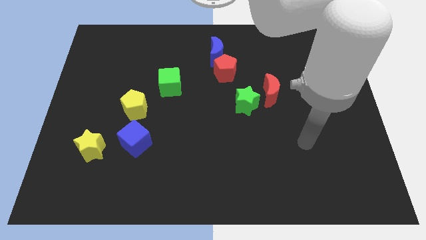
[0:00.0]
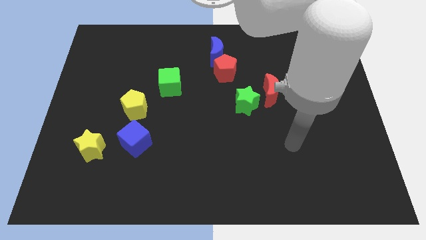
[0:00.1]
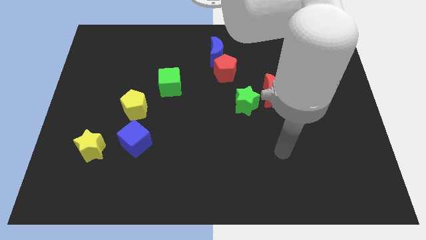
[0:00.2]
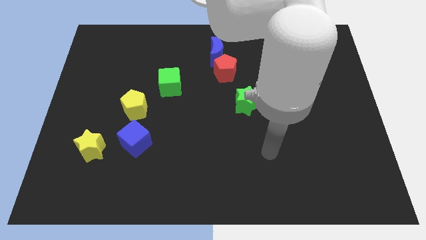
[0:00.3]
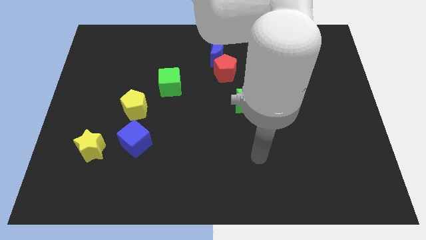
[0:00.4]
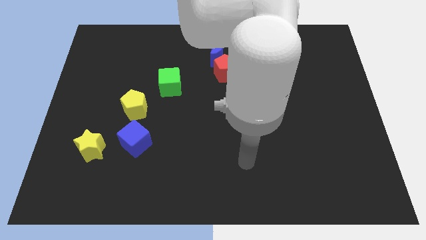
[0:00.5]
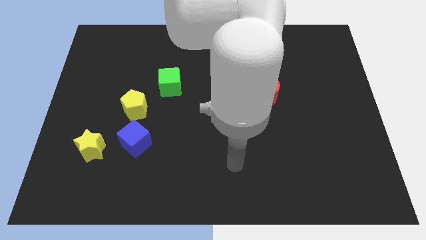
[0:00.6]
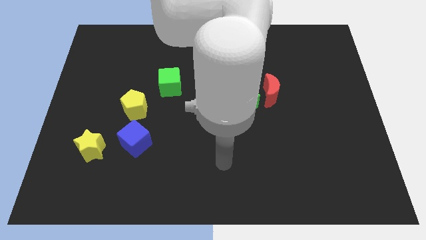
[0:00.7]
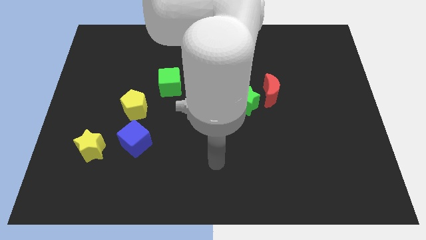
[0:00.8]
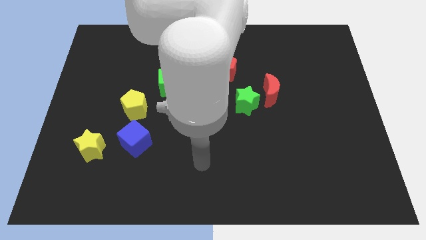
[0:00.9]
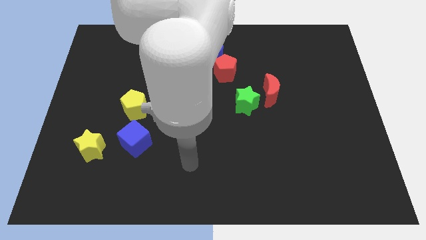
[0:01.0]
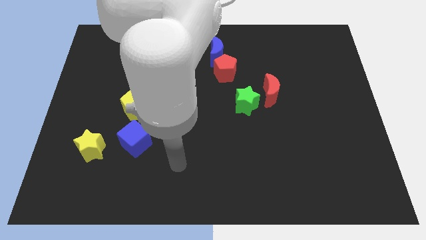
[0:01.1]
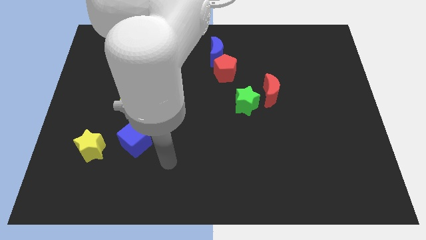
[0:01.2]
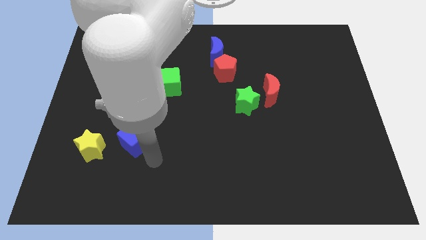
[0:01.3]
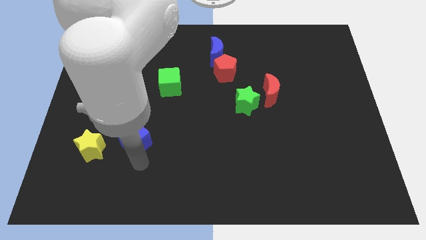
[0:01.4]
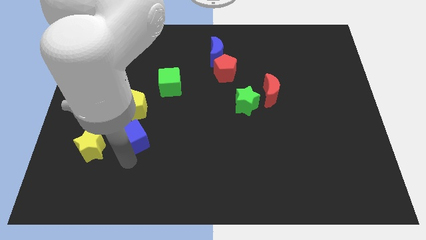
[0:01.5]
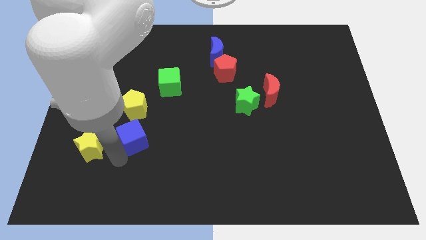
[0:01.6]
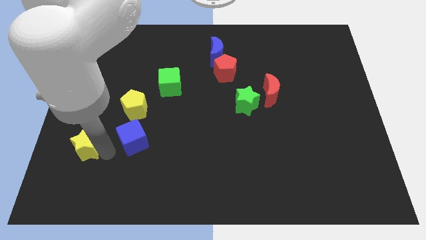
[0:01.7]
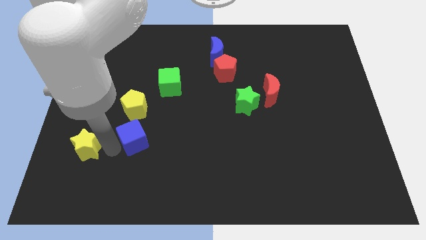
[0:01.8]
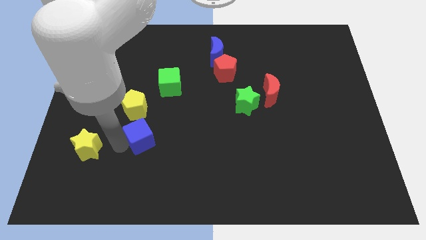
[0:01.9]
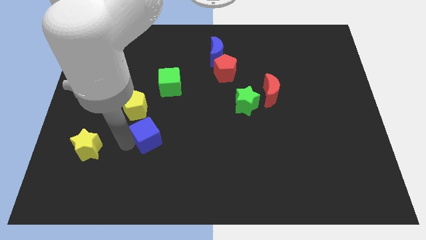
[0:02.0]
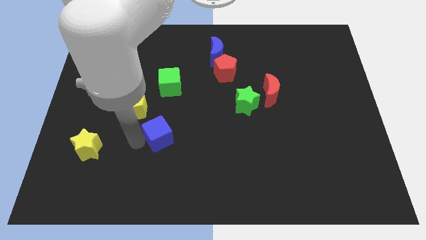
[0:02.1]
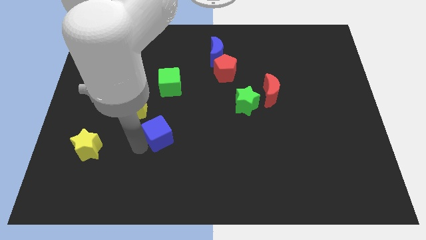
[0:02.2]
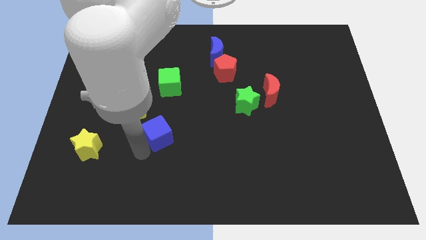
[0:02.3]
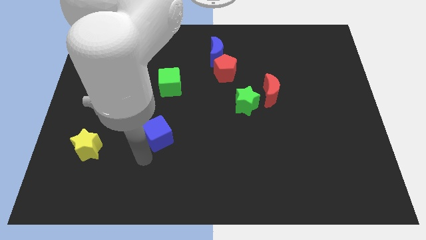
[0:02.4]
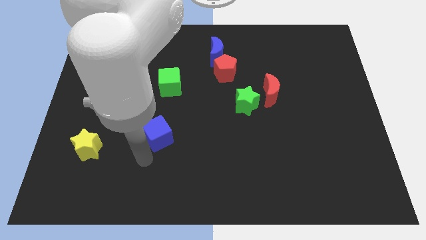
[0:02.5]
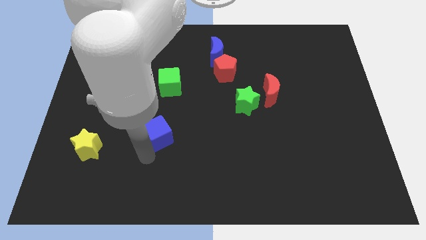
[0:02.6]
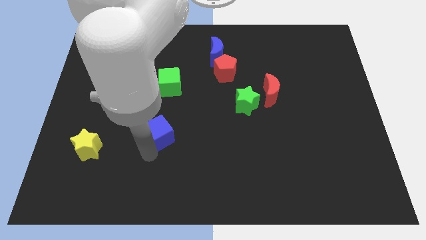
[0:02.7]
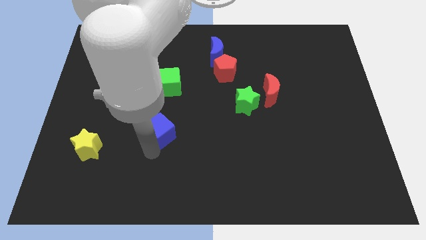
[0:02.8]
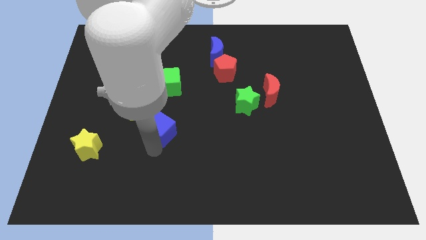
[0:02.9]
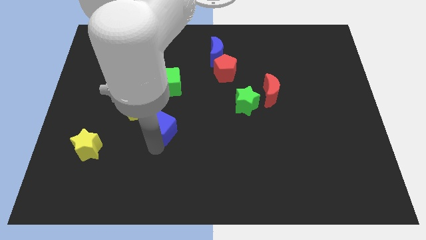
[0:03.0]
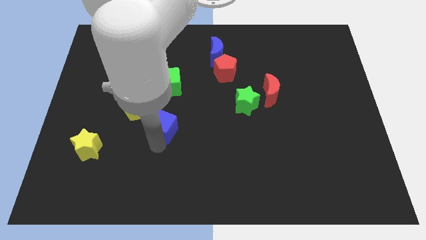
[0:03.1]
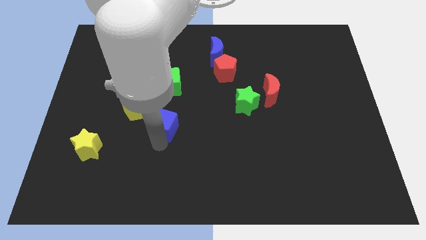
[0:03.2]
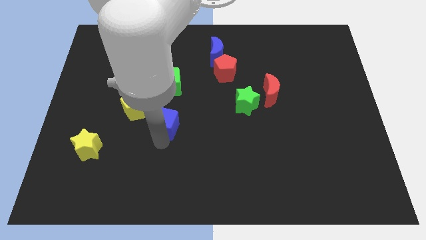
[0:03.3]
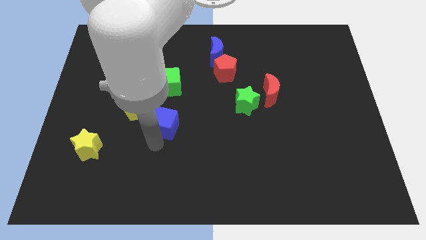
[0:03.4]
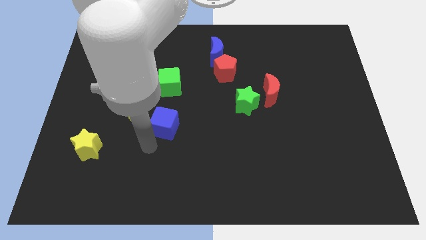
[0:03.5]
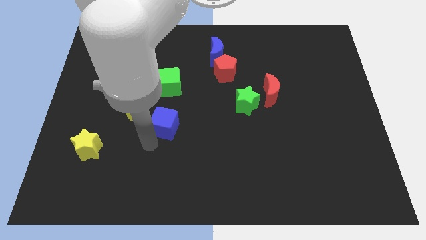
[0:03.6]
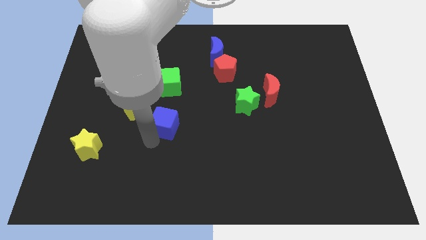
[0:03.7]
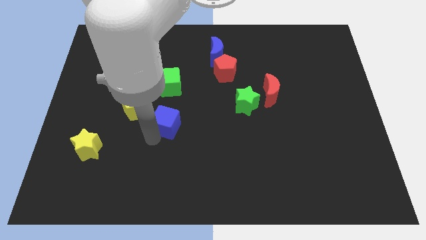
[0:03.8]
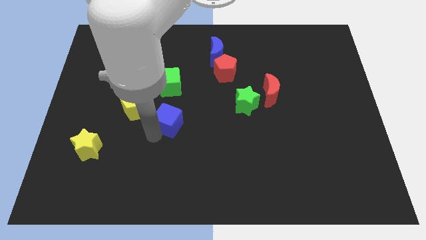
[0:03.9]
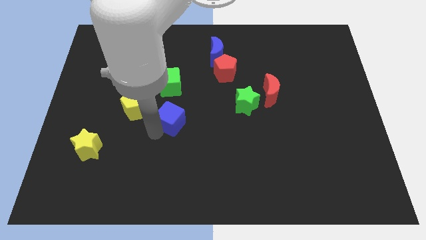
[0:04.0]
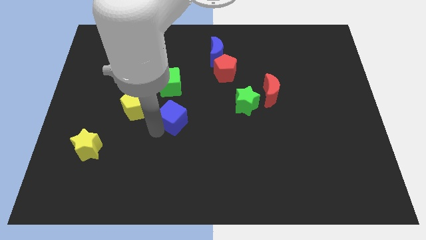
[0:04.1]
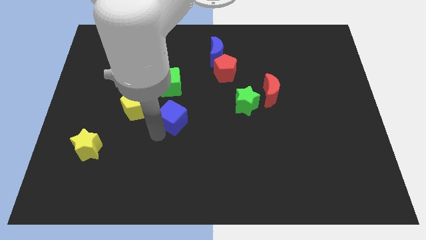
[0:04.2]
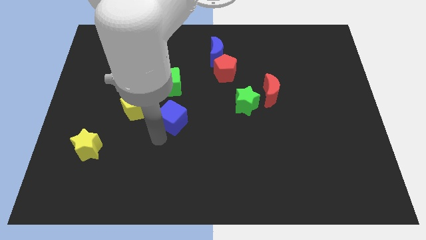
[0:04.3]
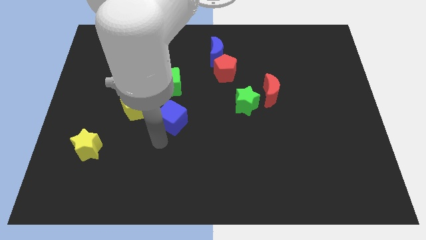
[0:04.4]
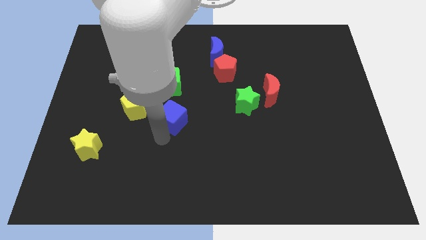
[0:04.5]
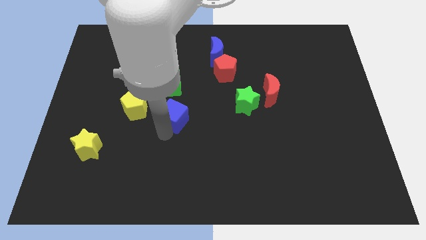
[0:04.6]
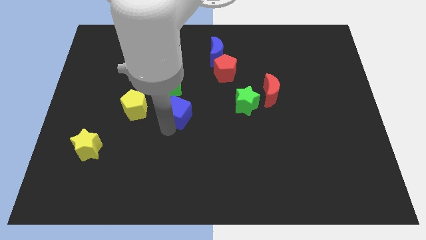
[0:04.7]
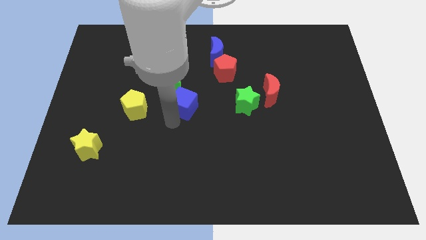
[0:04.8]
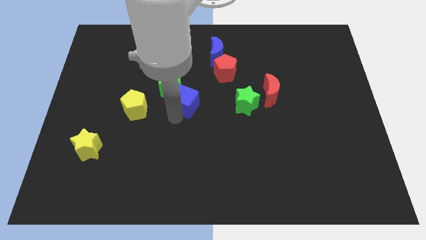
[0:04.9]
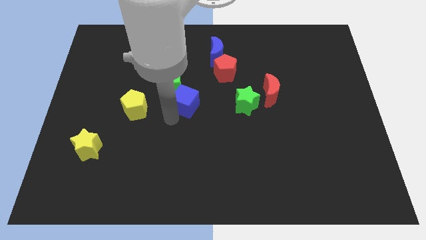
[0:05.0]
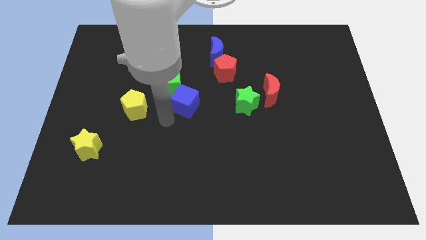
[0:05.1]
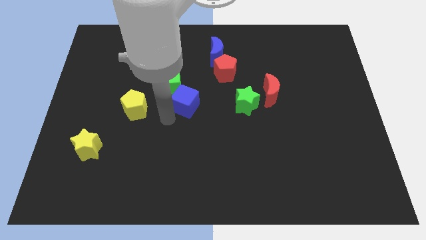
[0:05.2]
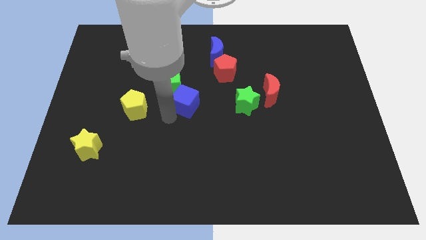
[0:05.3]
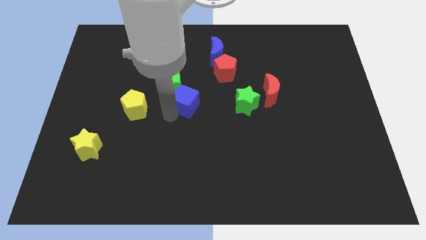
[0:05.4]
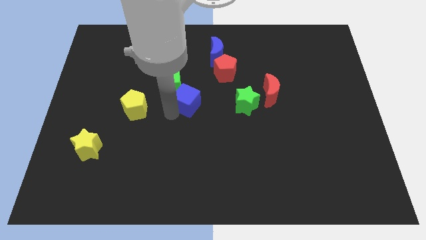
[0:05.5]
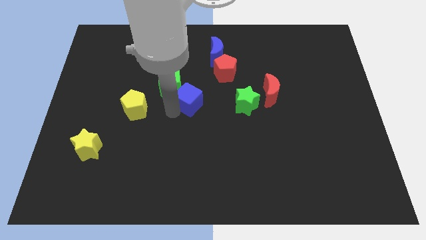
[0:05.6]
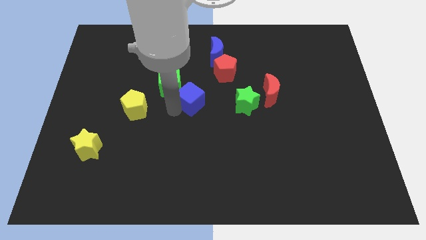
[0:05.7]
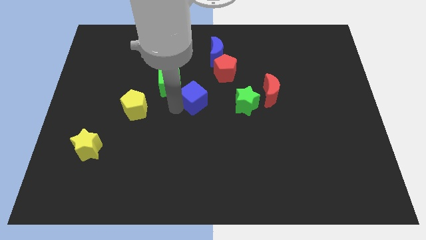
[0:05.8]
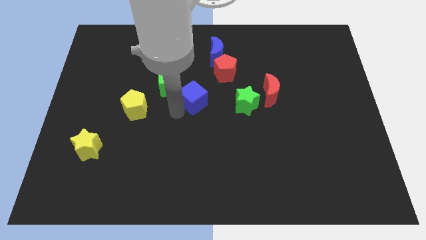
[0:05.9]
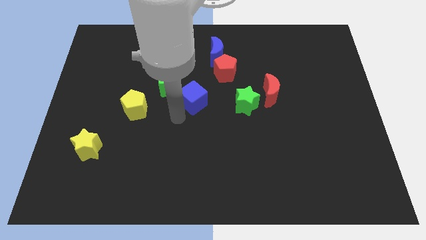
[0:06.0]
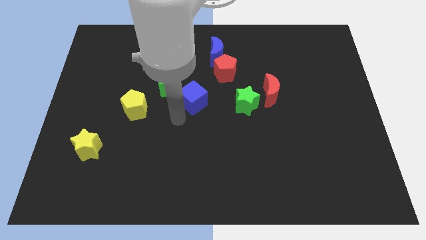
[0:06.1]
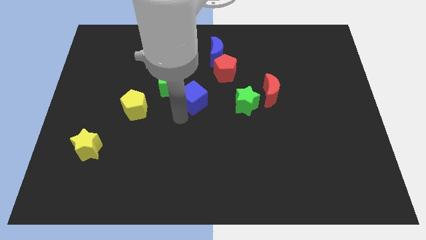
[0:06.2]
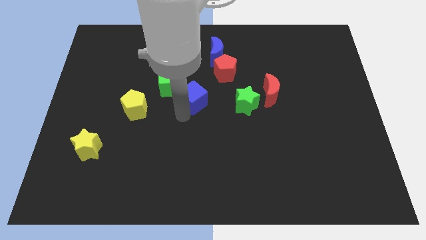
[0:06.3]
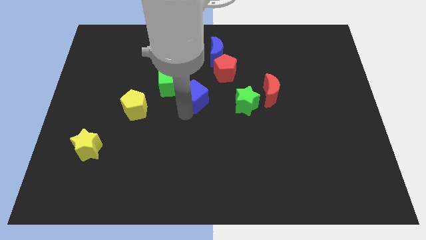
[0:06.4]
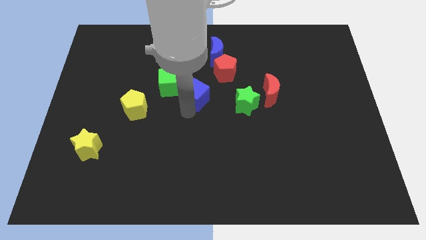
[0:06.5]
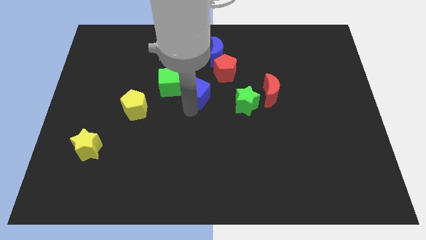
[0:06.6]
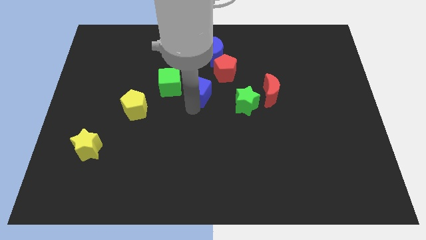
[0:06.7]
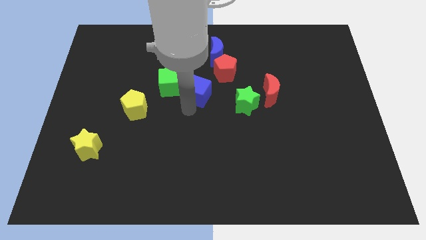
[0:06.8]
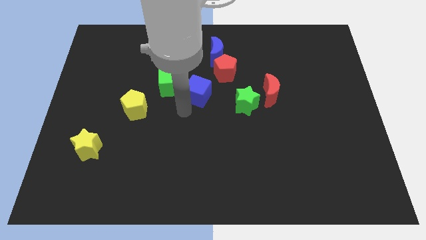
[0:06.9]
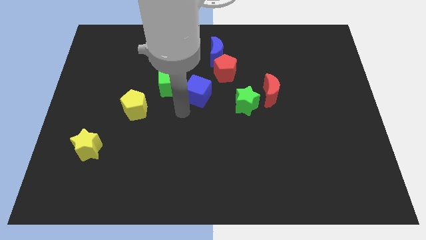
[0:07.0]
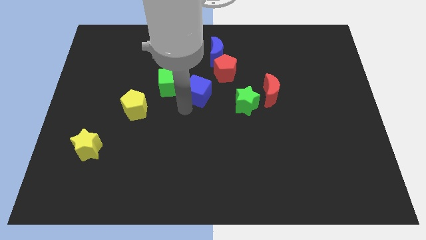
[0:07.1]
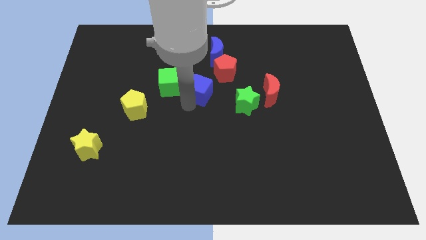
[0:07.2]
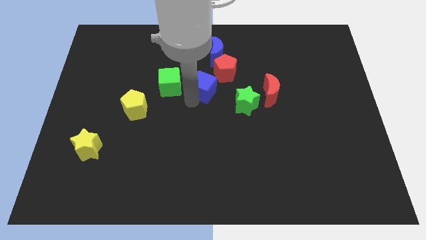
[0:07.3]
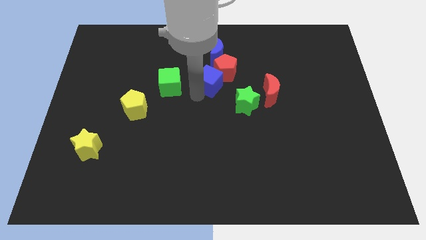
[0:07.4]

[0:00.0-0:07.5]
slide the blue cube towards the red pentagon

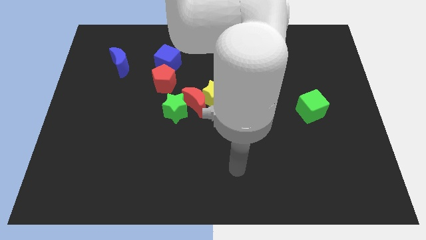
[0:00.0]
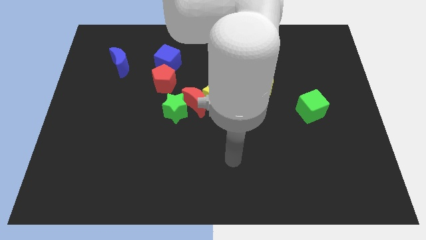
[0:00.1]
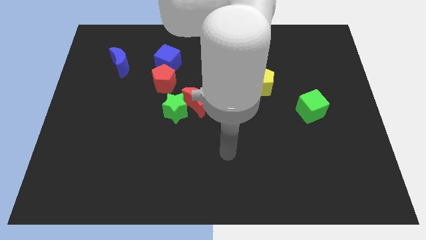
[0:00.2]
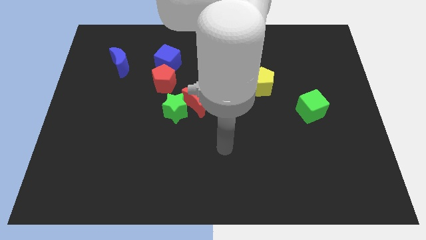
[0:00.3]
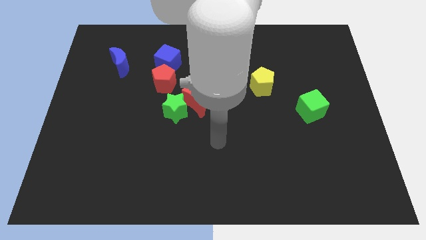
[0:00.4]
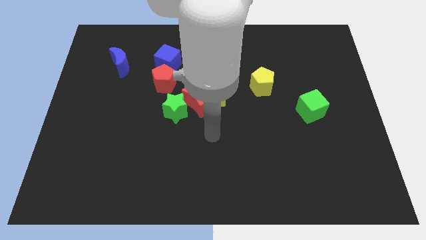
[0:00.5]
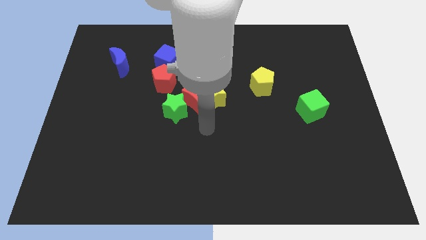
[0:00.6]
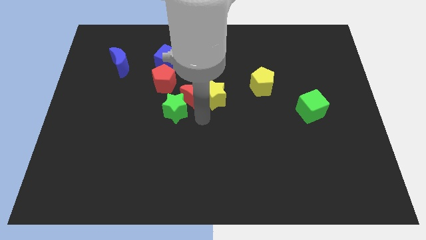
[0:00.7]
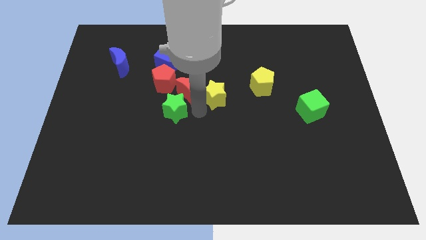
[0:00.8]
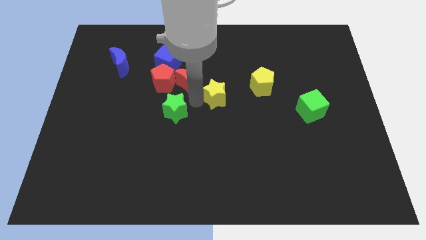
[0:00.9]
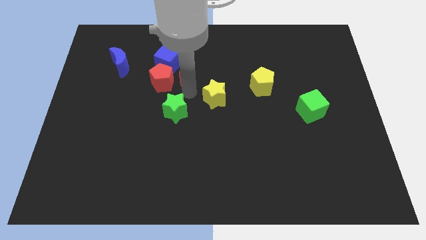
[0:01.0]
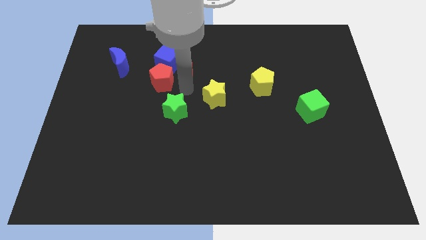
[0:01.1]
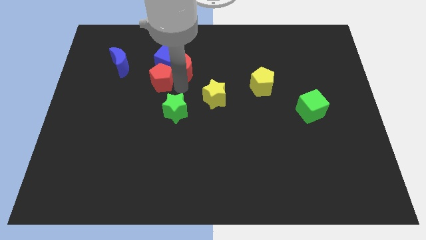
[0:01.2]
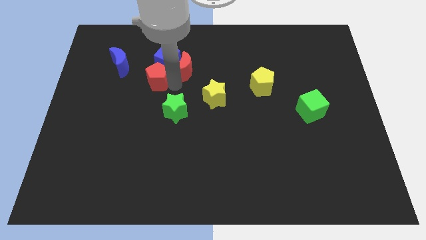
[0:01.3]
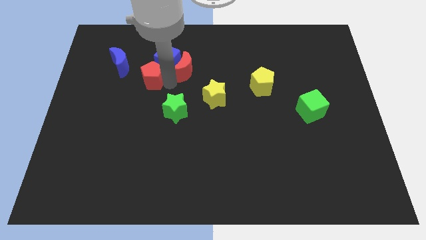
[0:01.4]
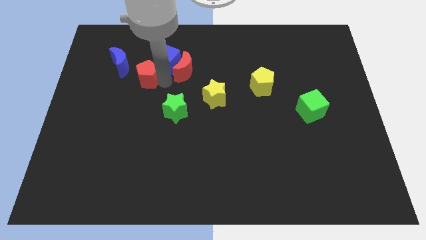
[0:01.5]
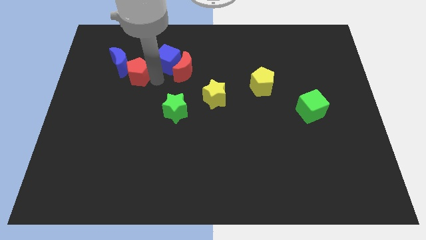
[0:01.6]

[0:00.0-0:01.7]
put the red pentagon to the blue moon
